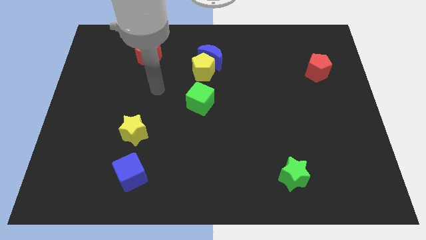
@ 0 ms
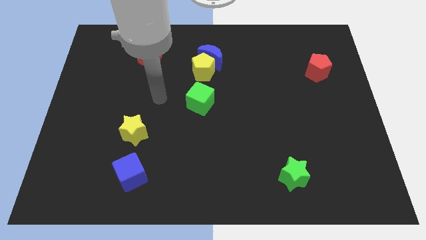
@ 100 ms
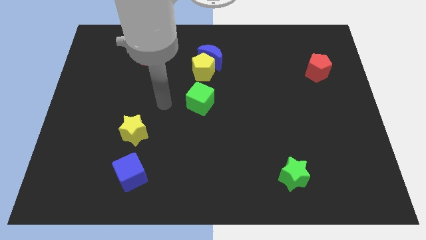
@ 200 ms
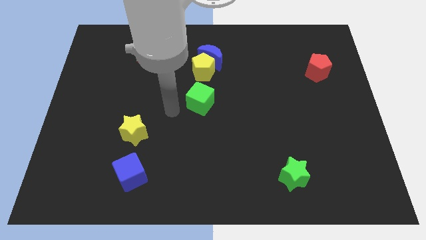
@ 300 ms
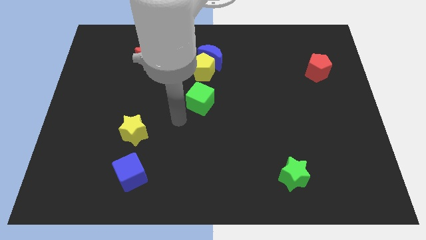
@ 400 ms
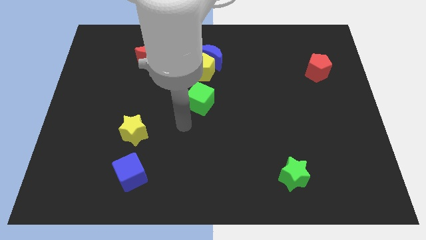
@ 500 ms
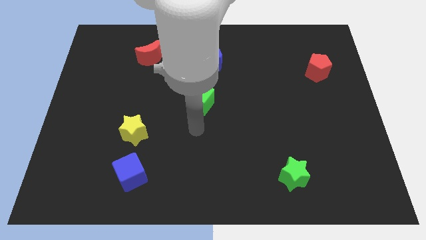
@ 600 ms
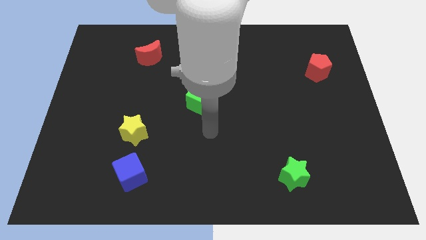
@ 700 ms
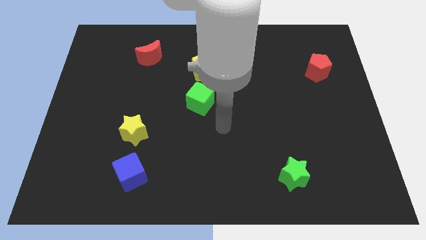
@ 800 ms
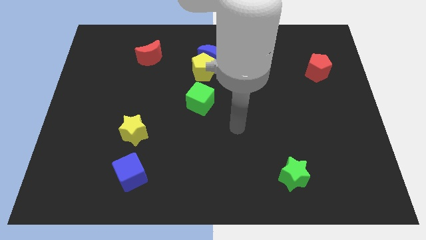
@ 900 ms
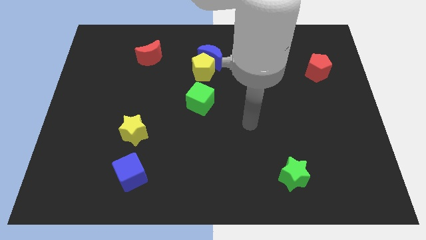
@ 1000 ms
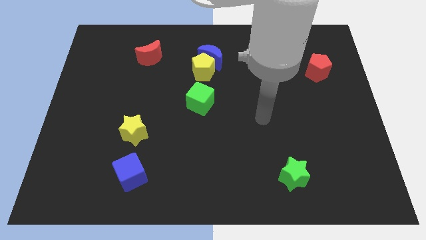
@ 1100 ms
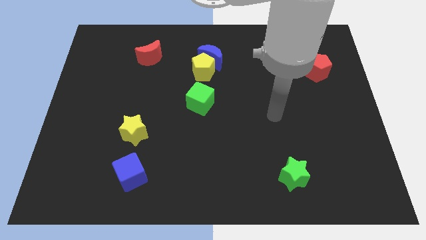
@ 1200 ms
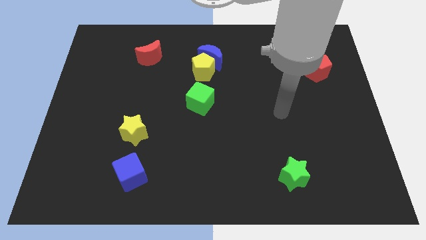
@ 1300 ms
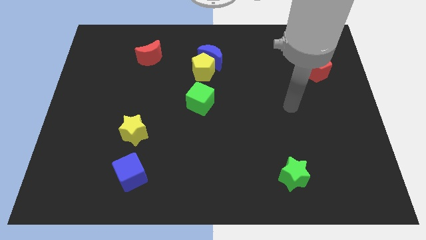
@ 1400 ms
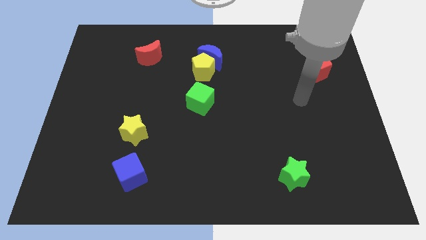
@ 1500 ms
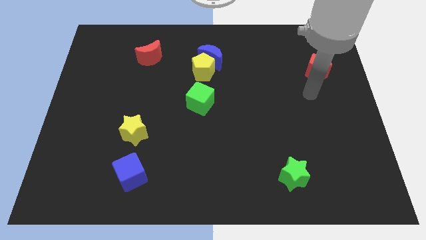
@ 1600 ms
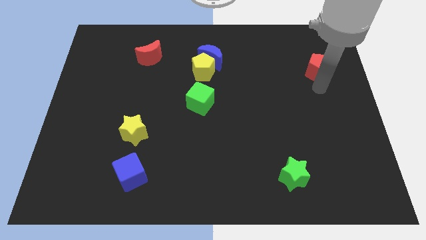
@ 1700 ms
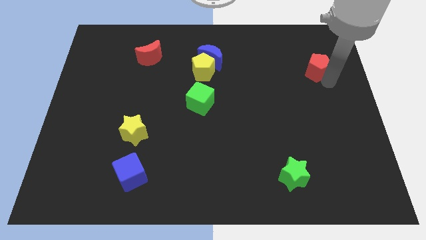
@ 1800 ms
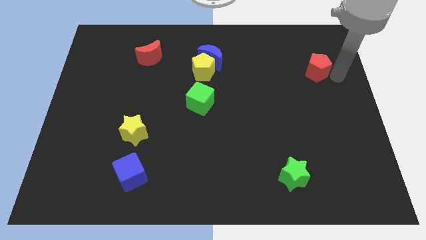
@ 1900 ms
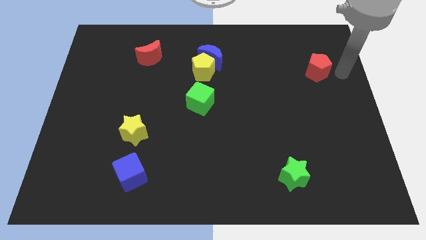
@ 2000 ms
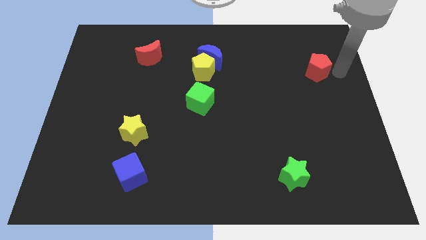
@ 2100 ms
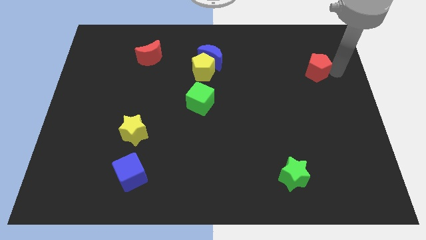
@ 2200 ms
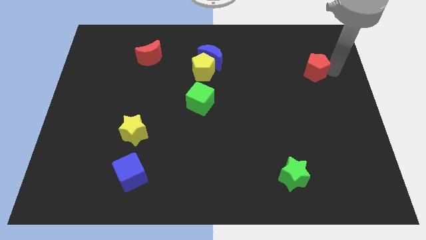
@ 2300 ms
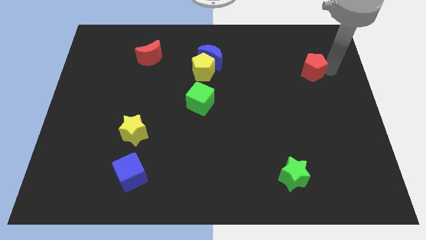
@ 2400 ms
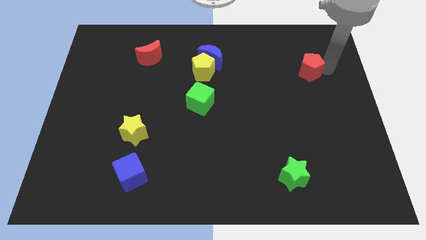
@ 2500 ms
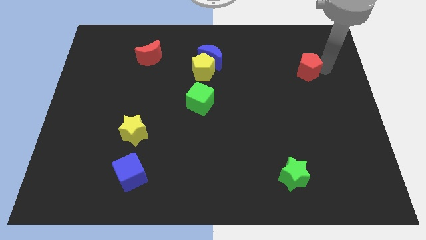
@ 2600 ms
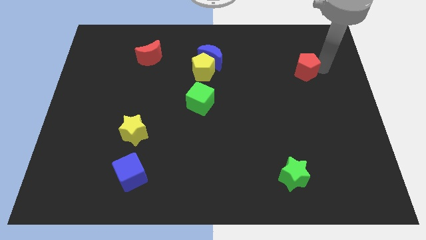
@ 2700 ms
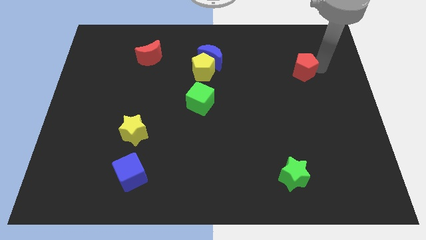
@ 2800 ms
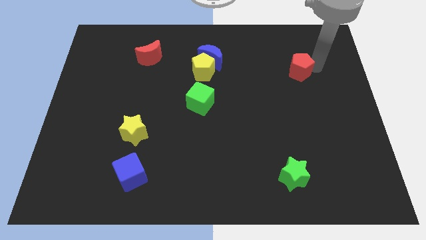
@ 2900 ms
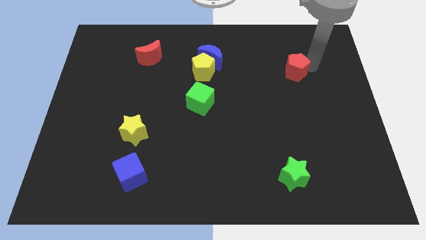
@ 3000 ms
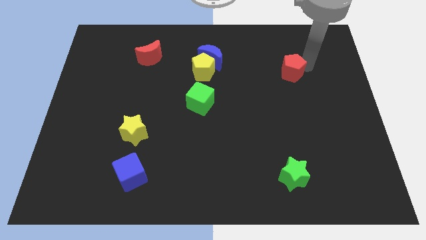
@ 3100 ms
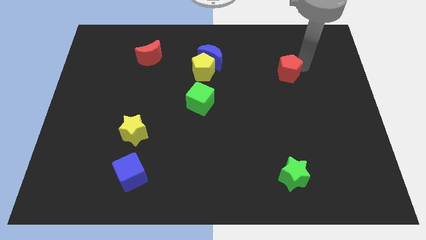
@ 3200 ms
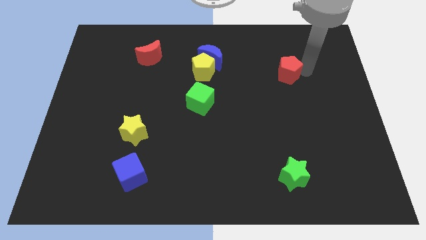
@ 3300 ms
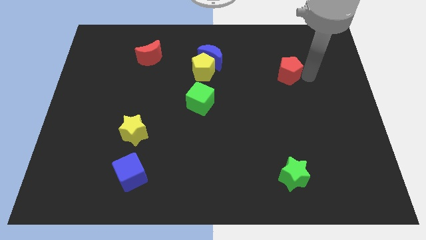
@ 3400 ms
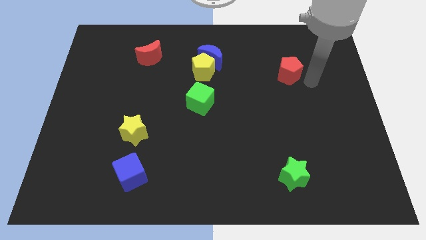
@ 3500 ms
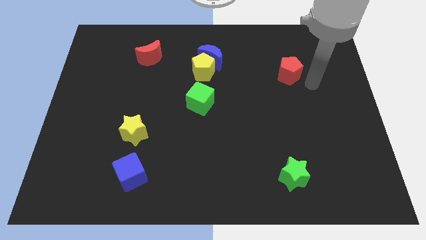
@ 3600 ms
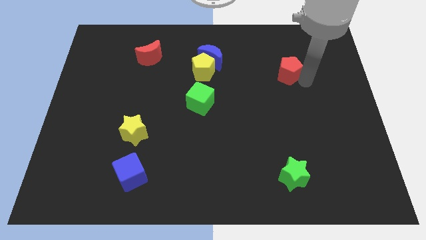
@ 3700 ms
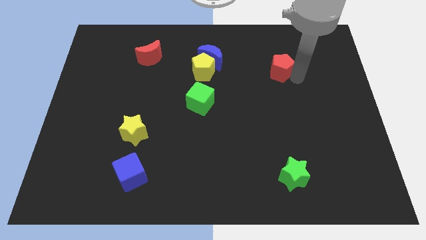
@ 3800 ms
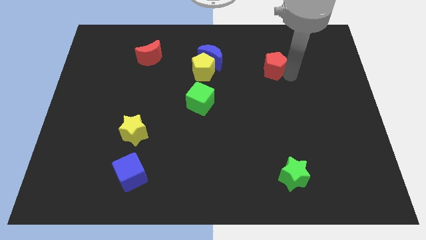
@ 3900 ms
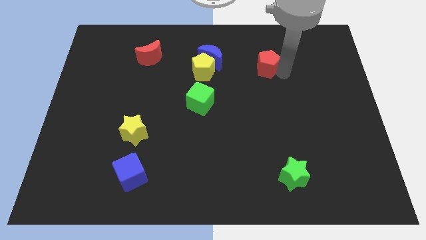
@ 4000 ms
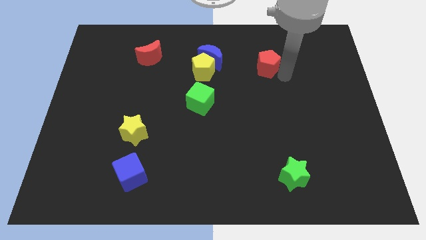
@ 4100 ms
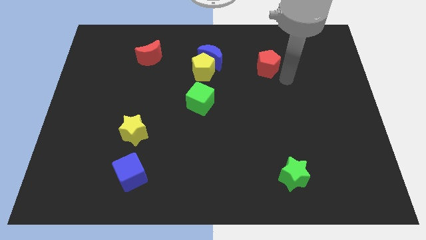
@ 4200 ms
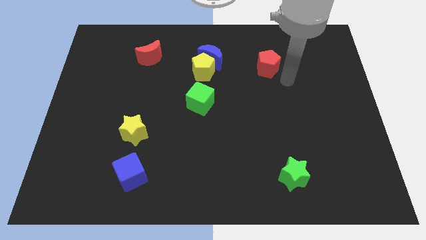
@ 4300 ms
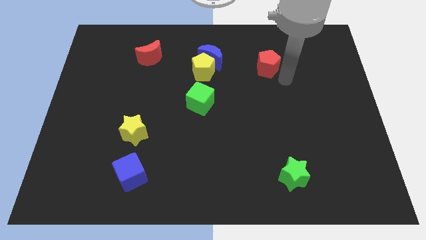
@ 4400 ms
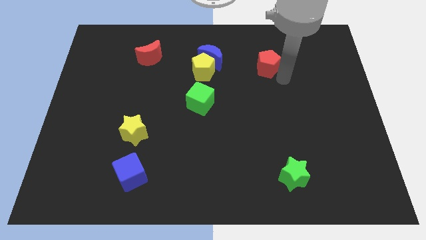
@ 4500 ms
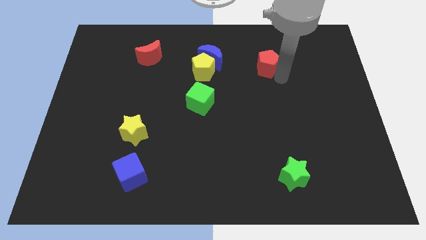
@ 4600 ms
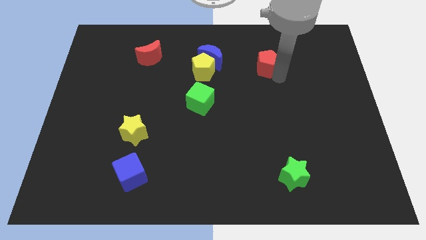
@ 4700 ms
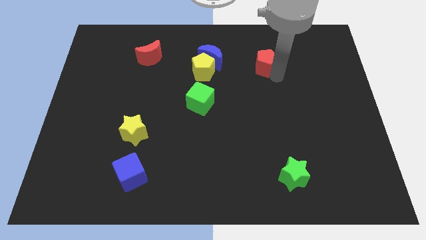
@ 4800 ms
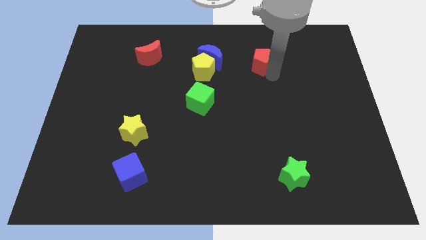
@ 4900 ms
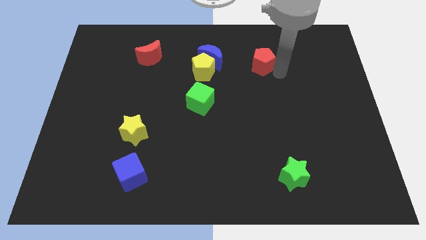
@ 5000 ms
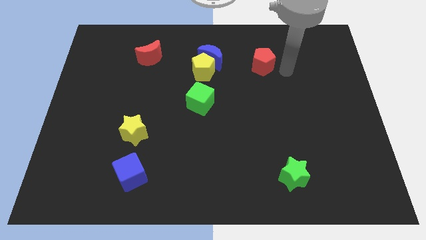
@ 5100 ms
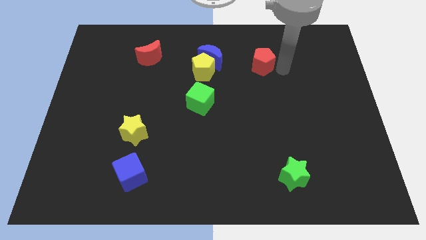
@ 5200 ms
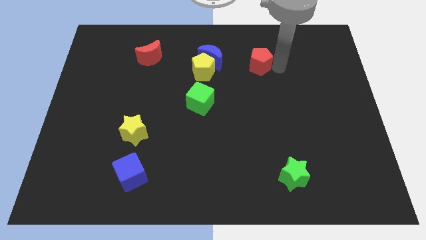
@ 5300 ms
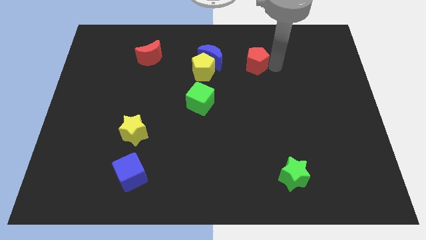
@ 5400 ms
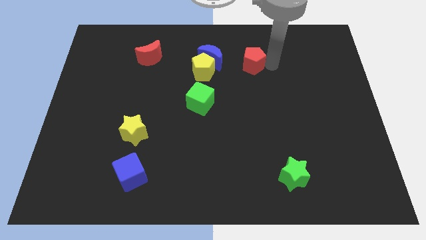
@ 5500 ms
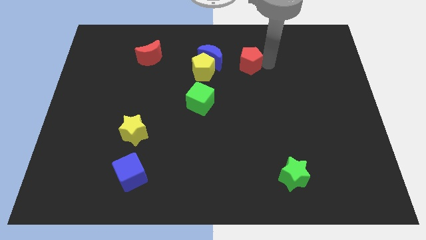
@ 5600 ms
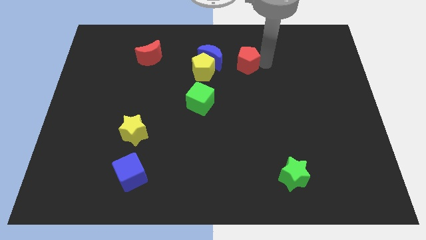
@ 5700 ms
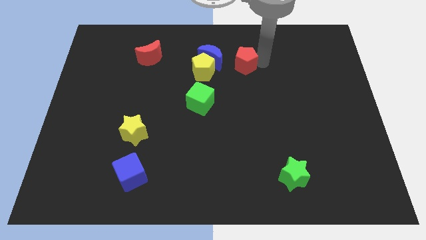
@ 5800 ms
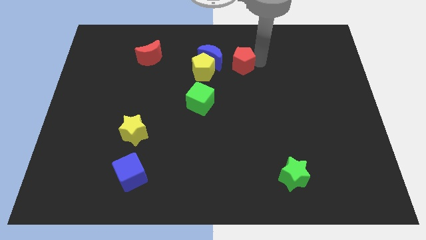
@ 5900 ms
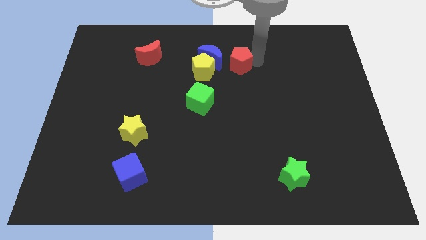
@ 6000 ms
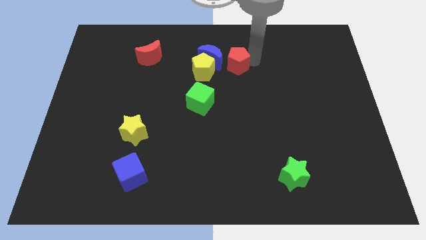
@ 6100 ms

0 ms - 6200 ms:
slide the red pentagon to the top right of the yellow pentagon

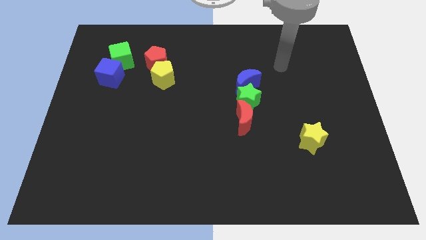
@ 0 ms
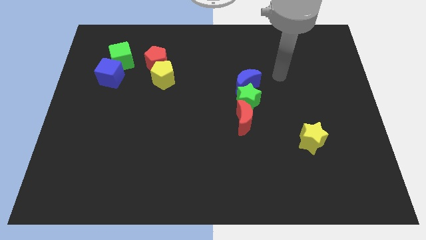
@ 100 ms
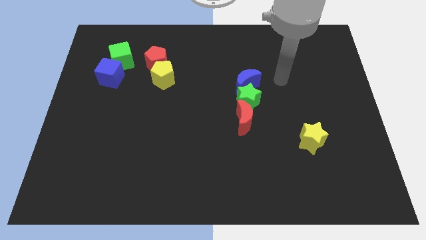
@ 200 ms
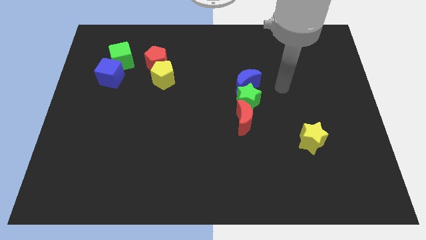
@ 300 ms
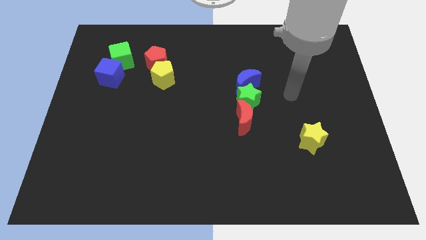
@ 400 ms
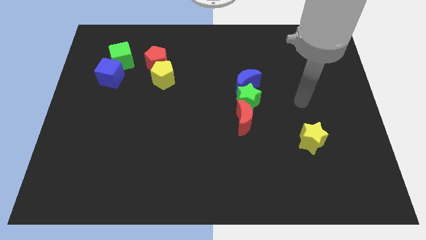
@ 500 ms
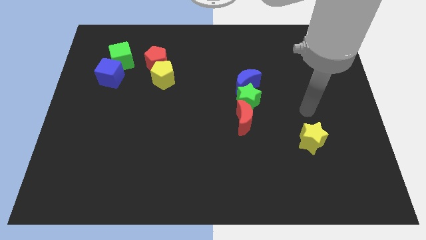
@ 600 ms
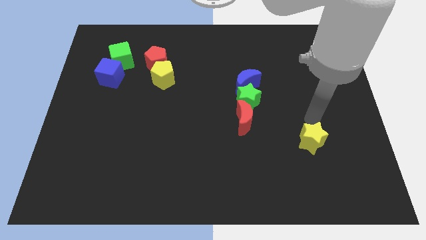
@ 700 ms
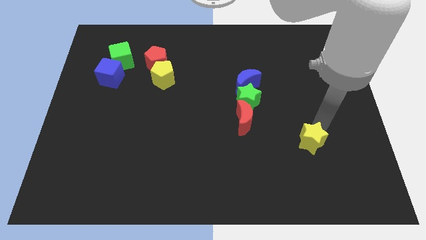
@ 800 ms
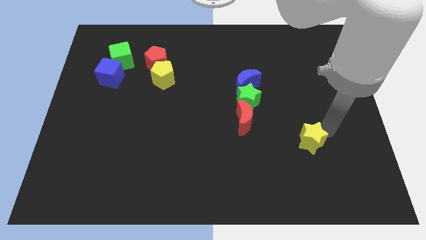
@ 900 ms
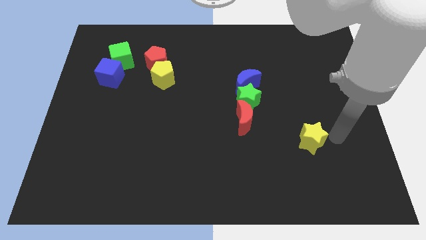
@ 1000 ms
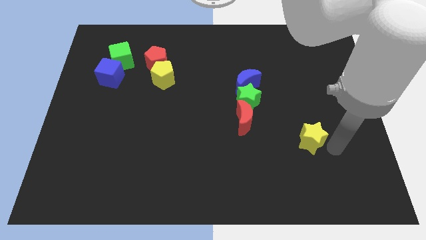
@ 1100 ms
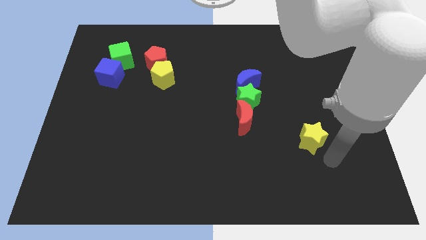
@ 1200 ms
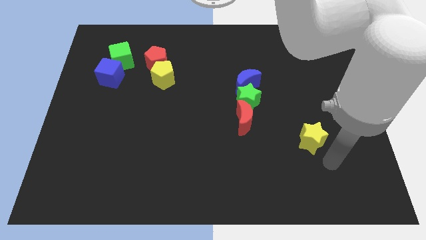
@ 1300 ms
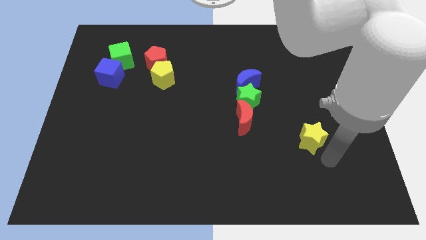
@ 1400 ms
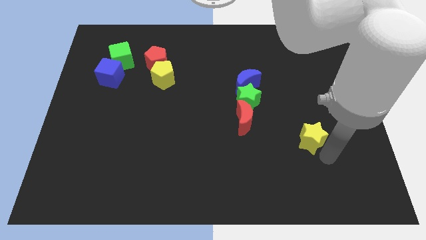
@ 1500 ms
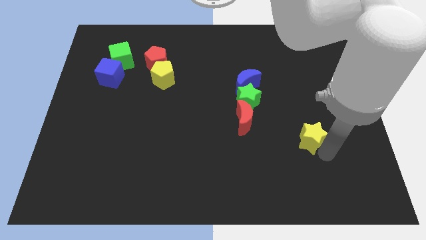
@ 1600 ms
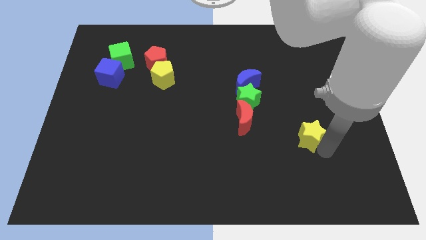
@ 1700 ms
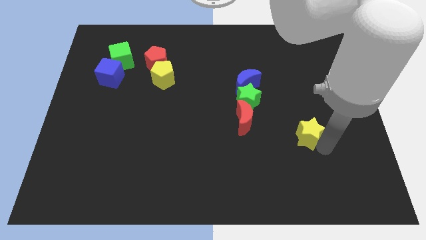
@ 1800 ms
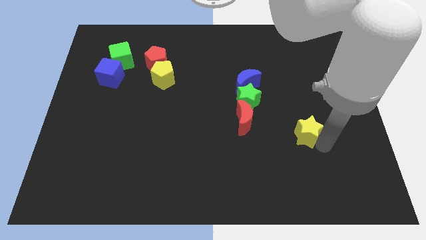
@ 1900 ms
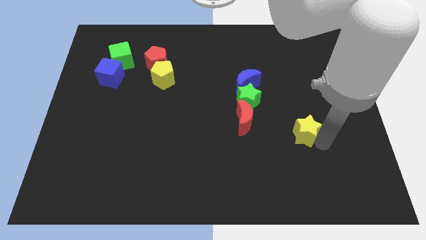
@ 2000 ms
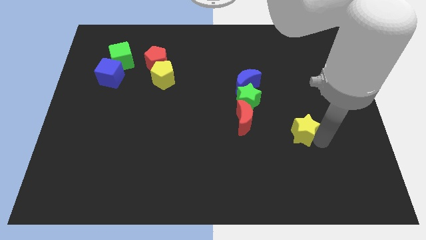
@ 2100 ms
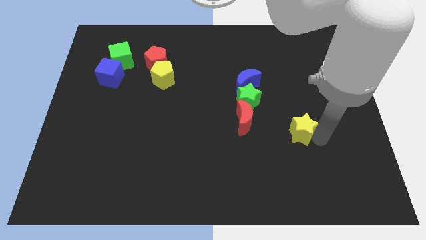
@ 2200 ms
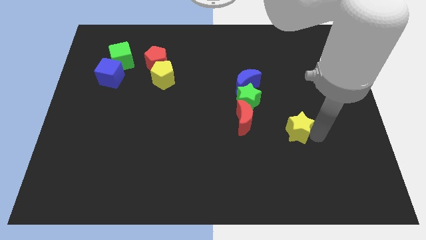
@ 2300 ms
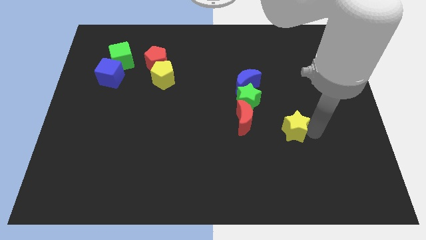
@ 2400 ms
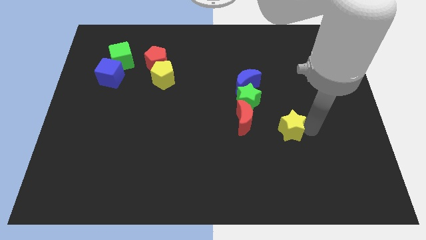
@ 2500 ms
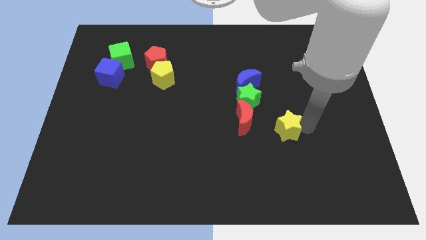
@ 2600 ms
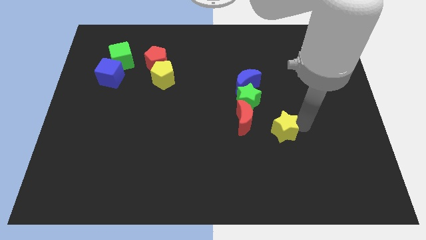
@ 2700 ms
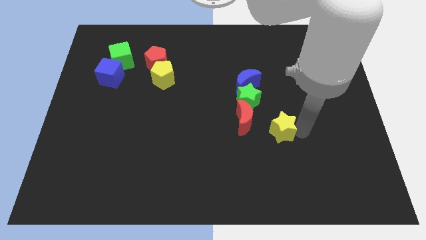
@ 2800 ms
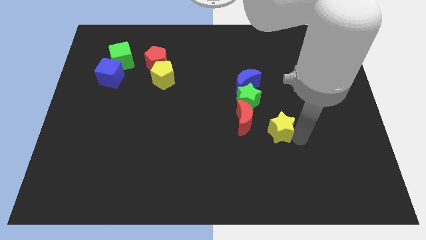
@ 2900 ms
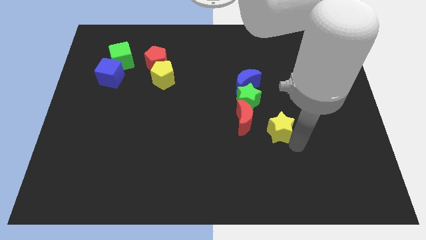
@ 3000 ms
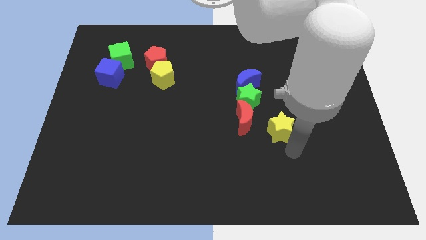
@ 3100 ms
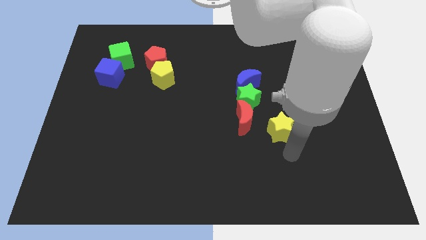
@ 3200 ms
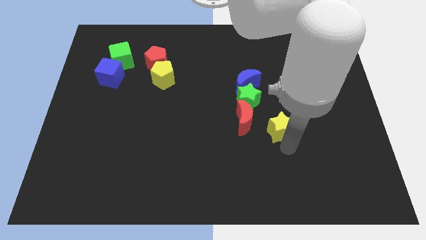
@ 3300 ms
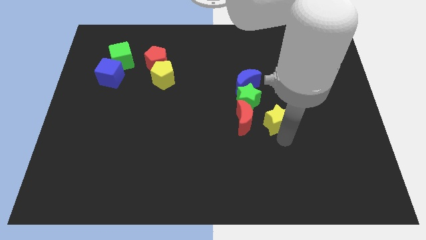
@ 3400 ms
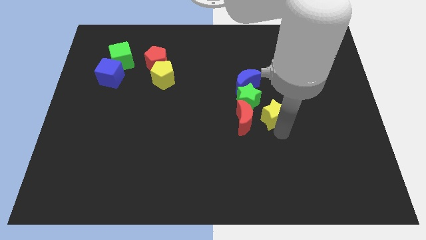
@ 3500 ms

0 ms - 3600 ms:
push the yellow star diagonally down and to the right of the blue moon
